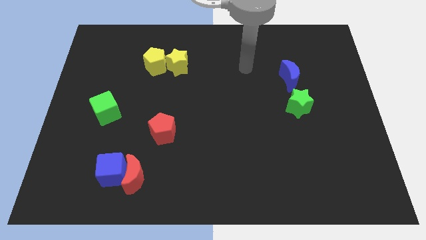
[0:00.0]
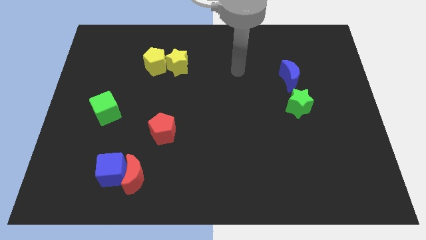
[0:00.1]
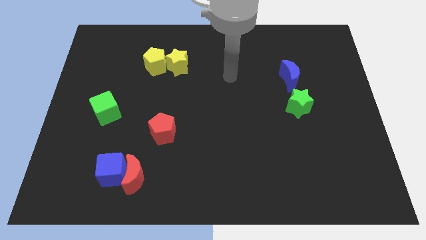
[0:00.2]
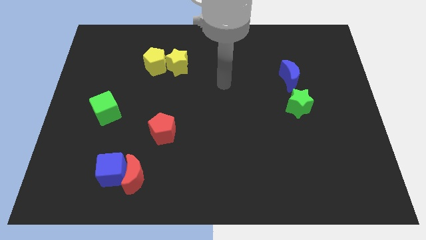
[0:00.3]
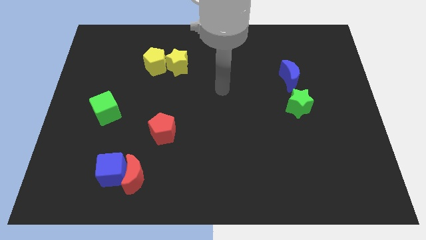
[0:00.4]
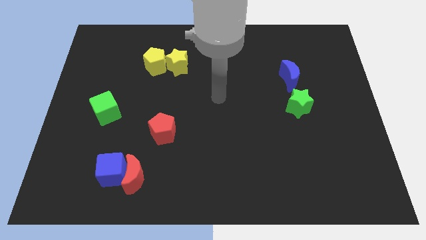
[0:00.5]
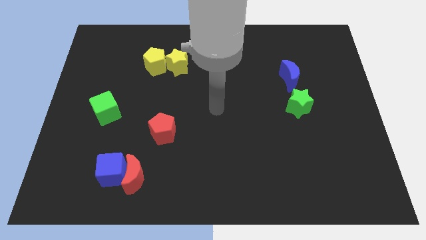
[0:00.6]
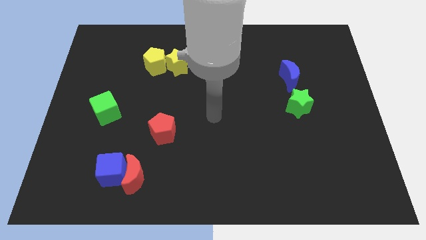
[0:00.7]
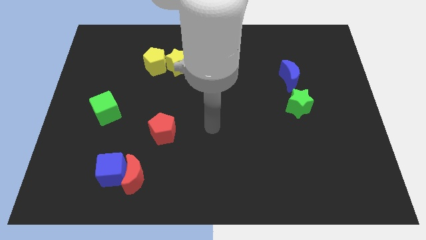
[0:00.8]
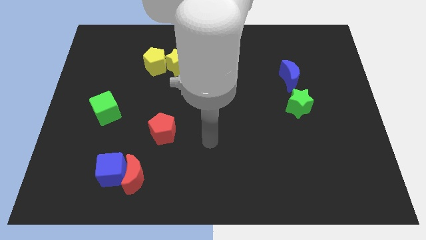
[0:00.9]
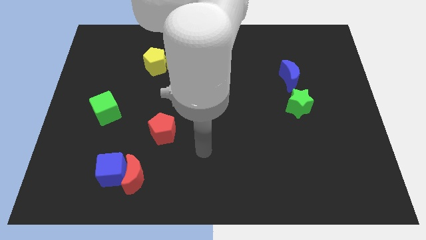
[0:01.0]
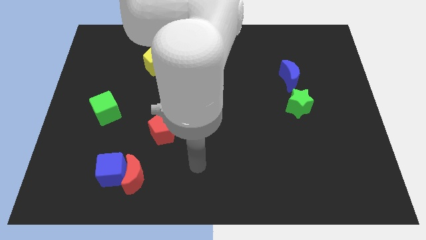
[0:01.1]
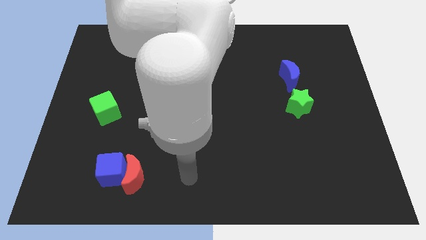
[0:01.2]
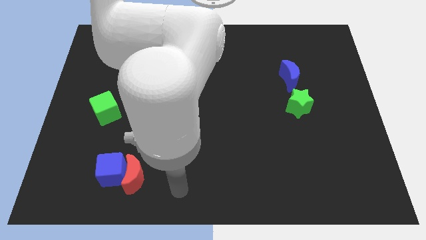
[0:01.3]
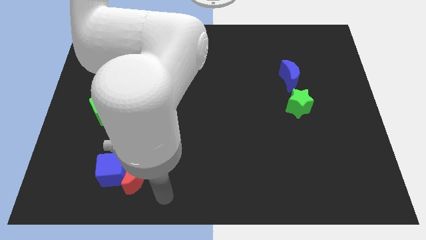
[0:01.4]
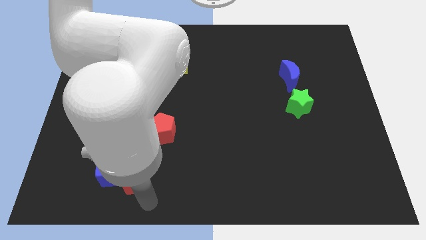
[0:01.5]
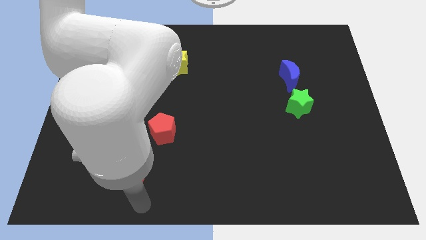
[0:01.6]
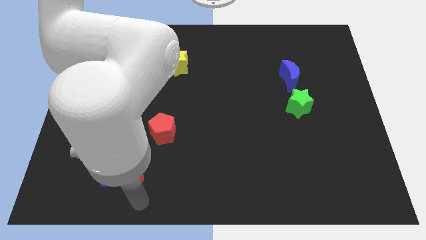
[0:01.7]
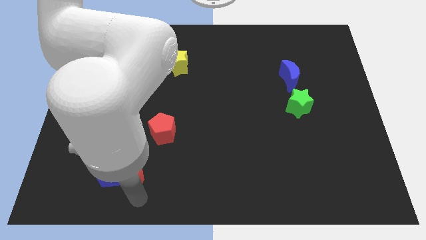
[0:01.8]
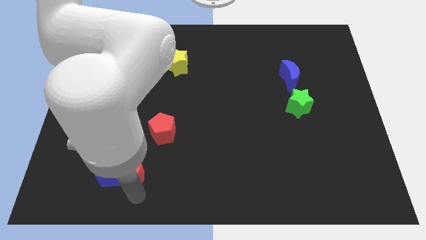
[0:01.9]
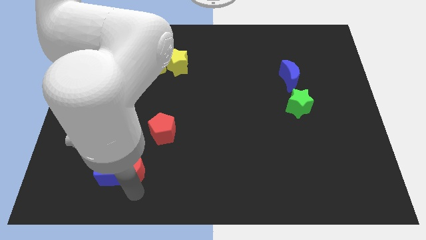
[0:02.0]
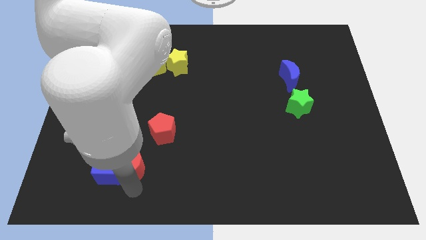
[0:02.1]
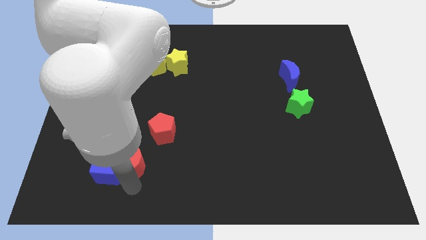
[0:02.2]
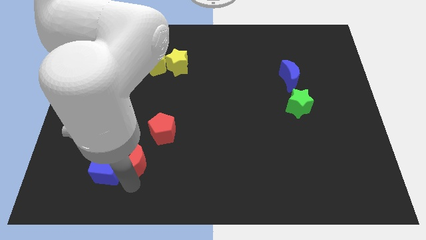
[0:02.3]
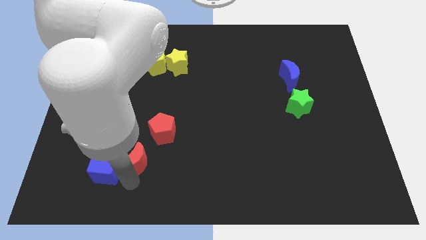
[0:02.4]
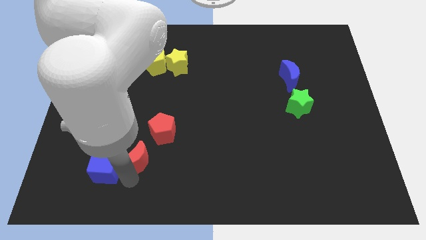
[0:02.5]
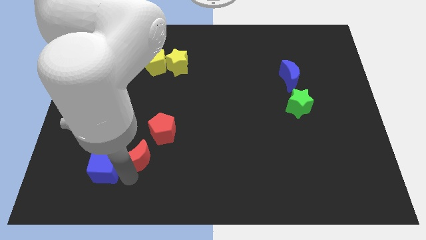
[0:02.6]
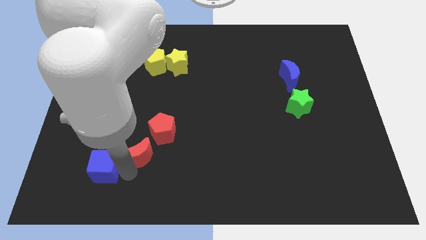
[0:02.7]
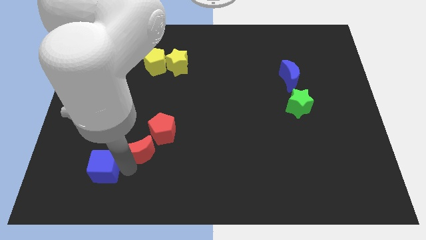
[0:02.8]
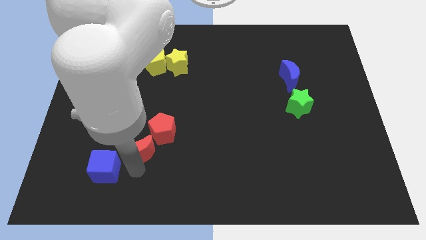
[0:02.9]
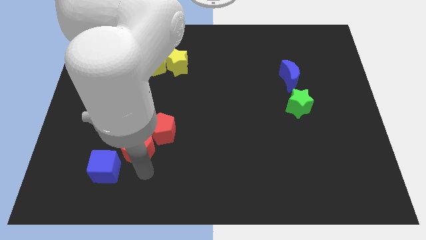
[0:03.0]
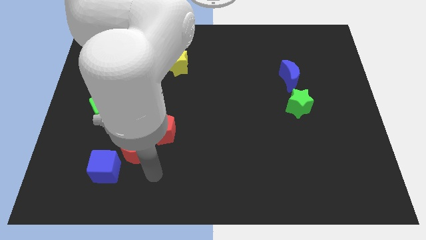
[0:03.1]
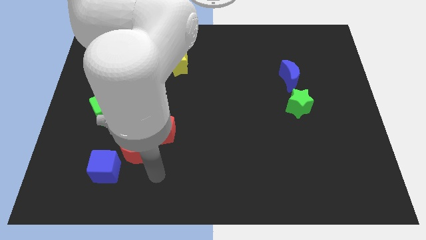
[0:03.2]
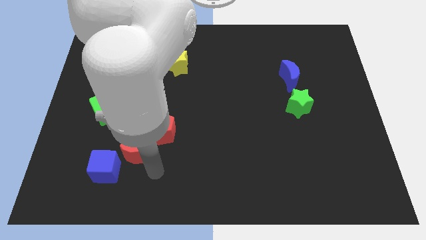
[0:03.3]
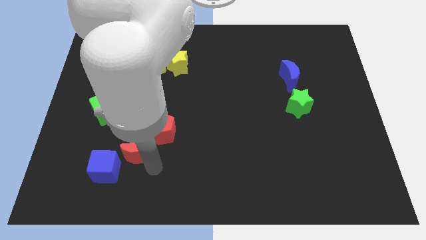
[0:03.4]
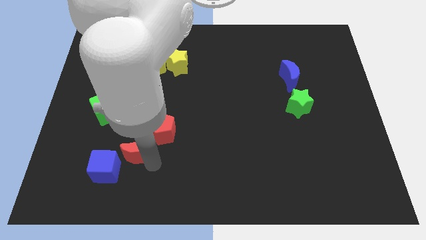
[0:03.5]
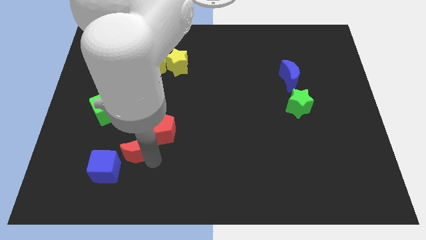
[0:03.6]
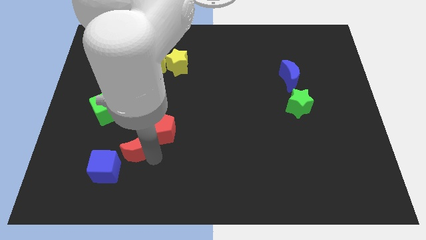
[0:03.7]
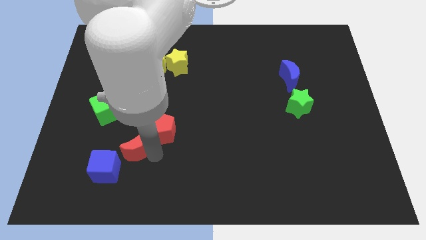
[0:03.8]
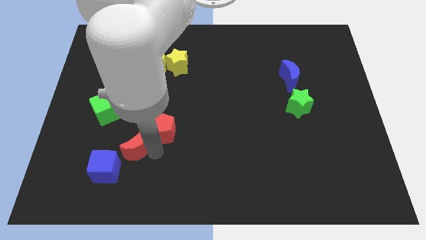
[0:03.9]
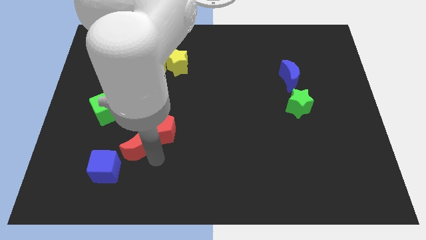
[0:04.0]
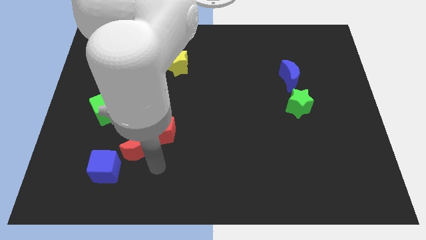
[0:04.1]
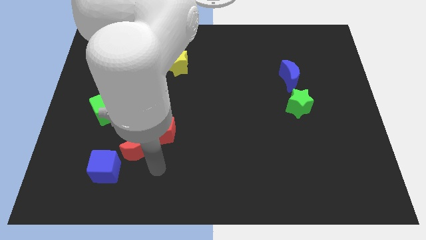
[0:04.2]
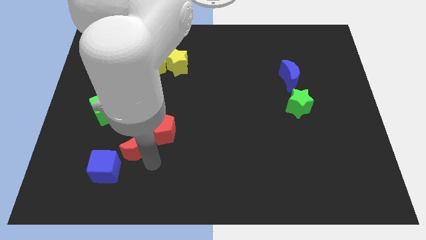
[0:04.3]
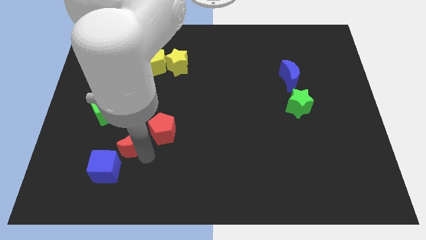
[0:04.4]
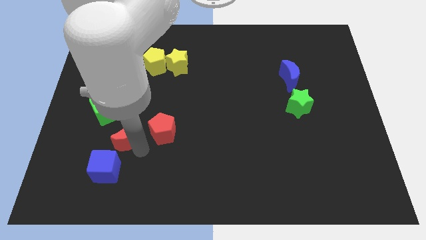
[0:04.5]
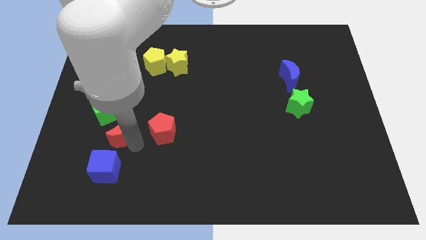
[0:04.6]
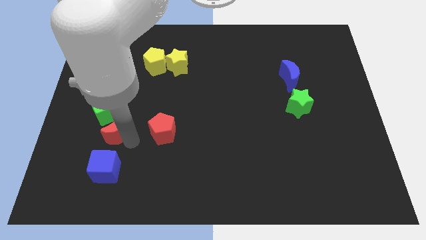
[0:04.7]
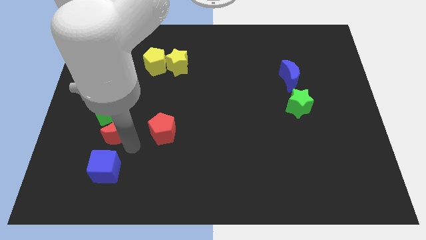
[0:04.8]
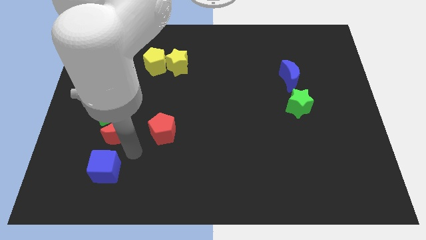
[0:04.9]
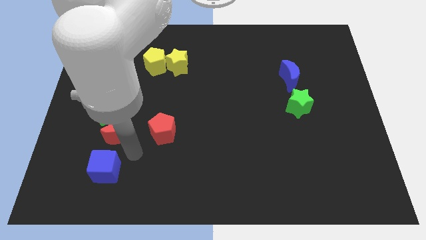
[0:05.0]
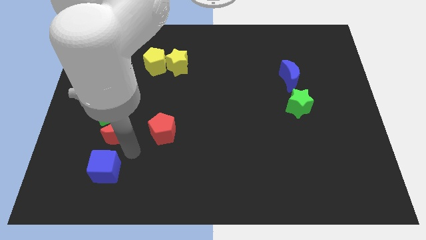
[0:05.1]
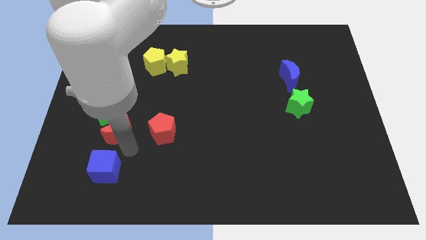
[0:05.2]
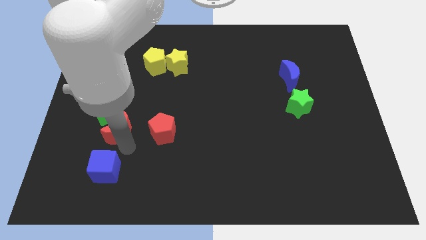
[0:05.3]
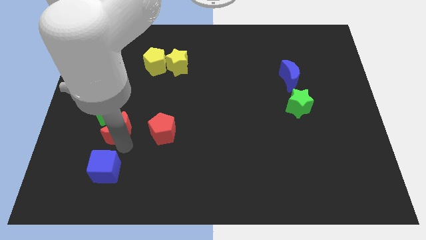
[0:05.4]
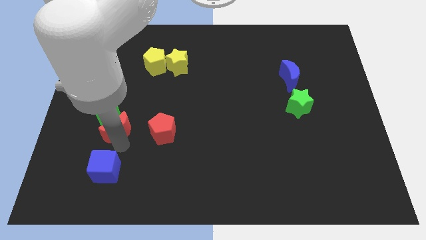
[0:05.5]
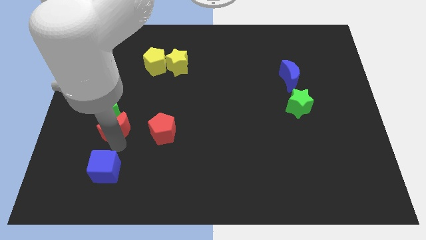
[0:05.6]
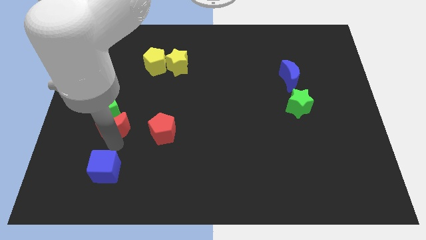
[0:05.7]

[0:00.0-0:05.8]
push the red moon next to the green cube

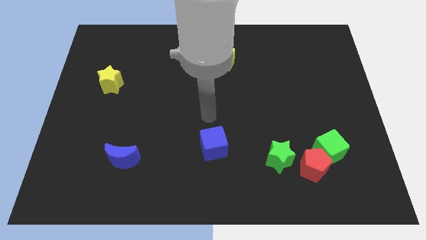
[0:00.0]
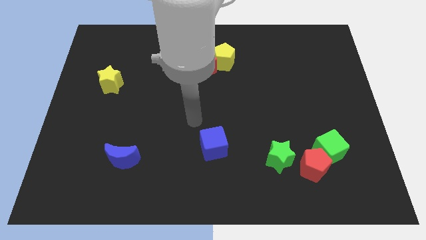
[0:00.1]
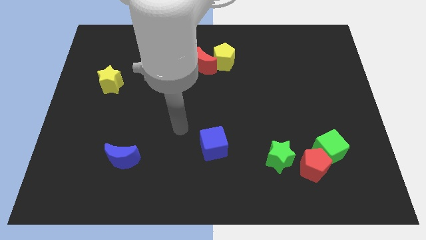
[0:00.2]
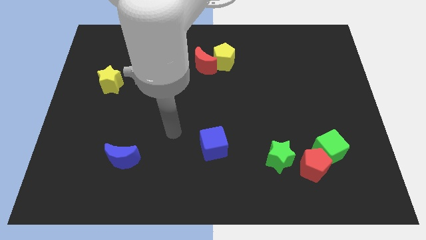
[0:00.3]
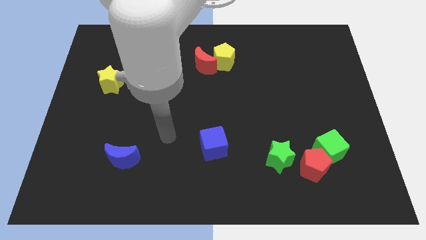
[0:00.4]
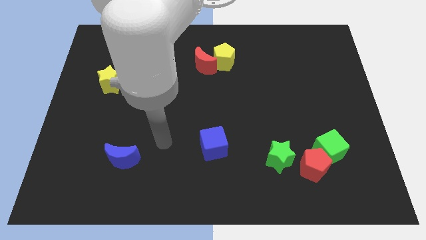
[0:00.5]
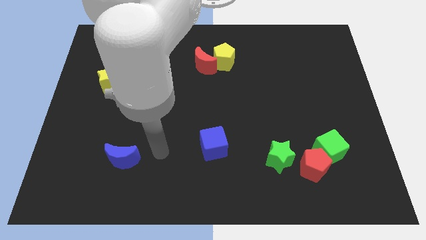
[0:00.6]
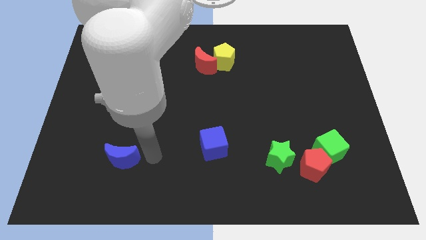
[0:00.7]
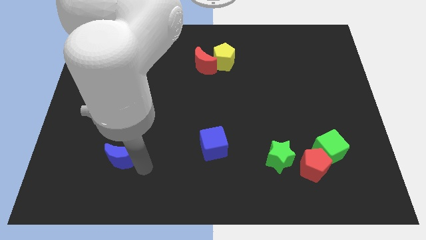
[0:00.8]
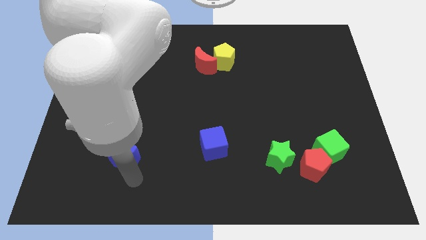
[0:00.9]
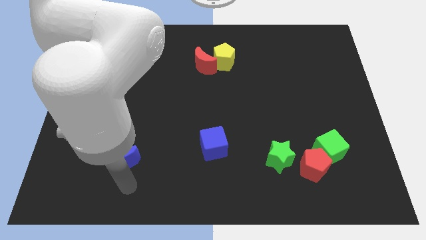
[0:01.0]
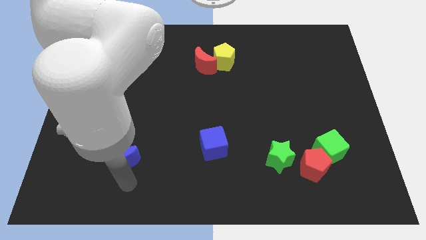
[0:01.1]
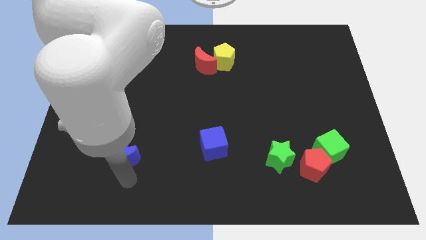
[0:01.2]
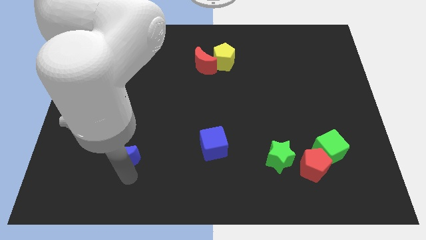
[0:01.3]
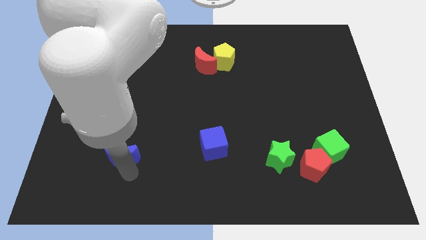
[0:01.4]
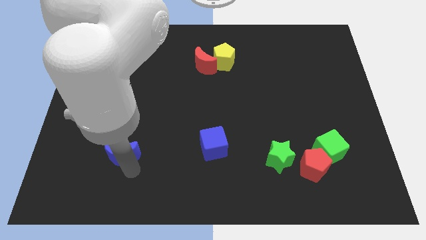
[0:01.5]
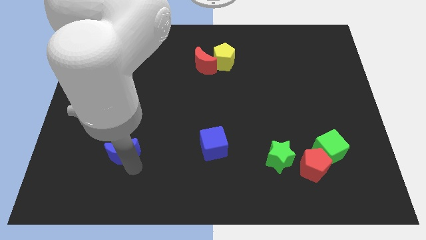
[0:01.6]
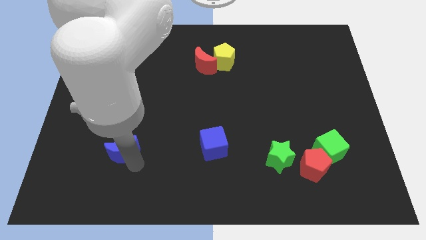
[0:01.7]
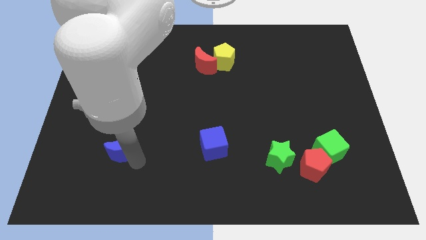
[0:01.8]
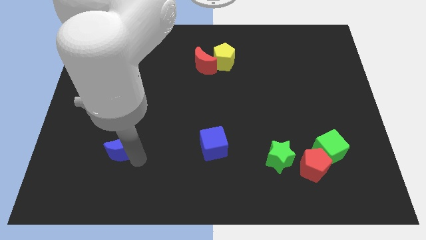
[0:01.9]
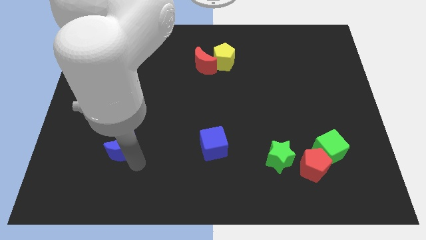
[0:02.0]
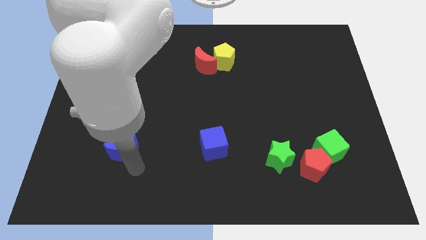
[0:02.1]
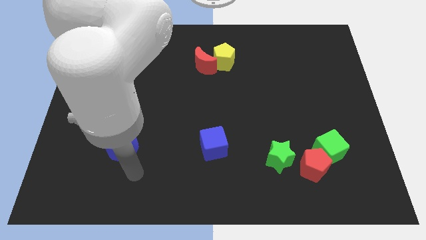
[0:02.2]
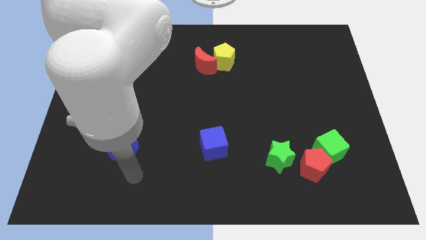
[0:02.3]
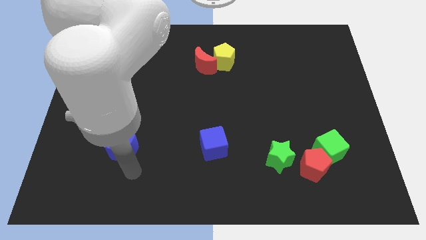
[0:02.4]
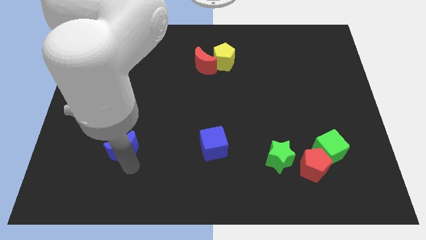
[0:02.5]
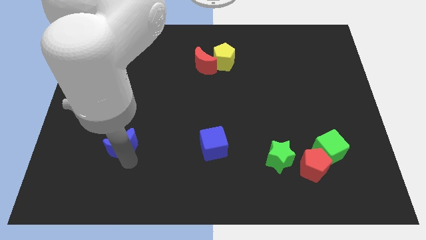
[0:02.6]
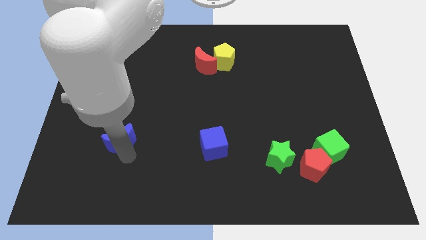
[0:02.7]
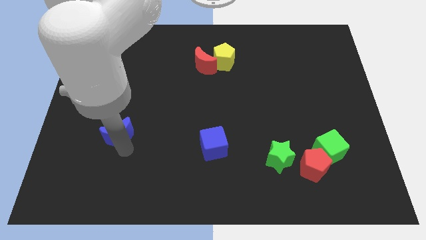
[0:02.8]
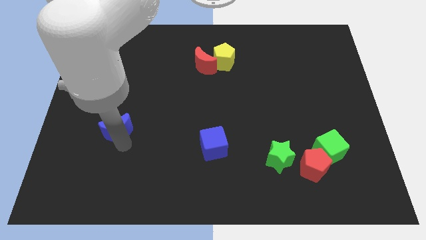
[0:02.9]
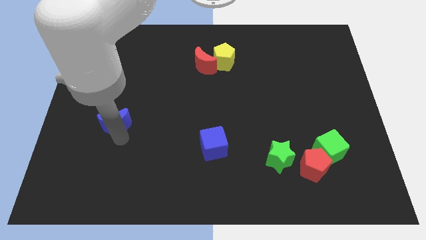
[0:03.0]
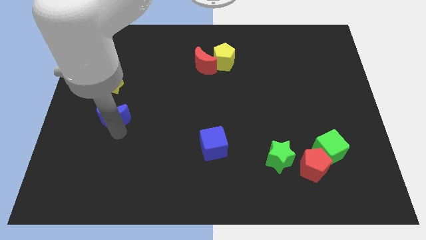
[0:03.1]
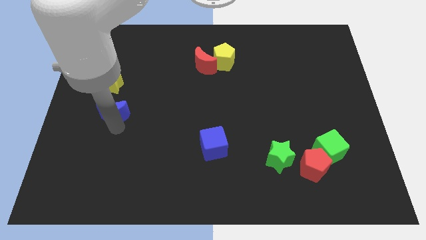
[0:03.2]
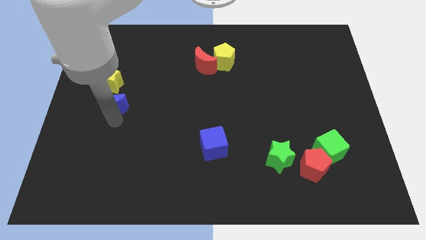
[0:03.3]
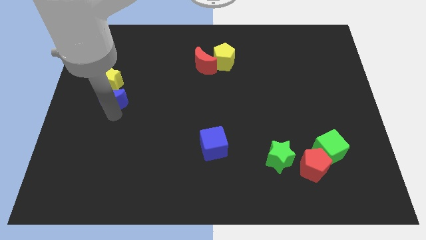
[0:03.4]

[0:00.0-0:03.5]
put the blue moon next to the yellow star
